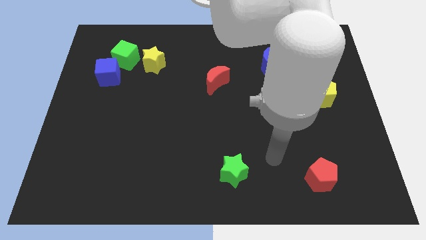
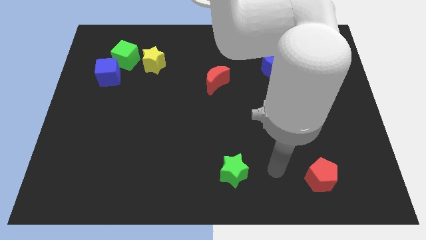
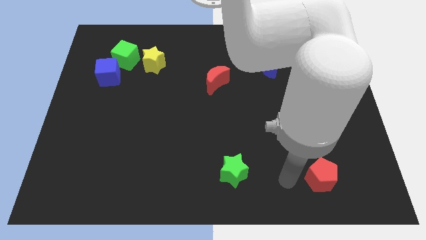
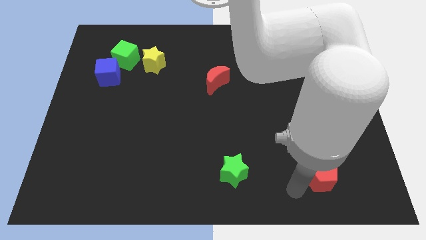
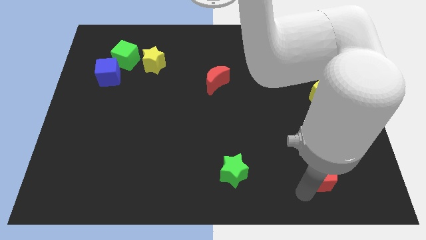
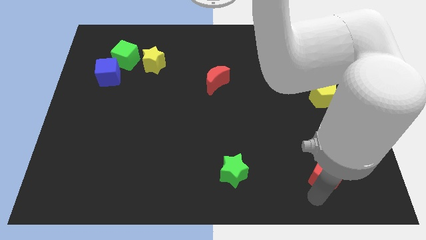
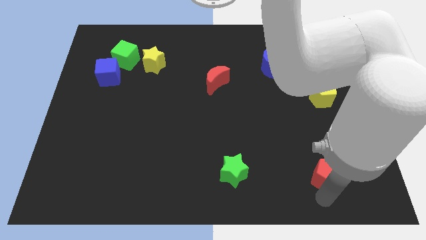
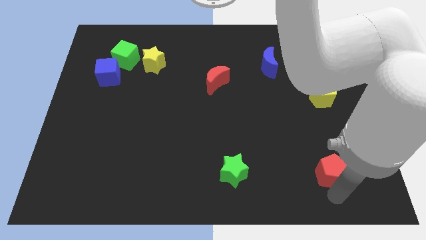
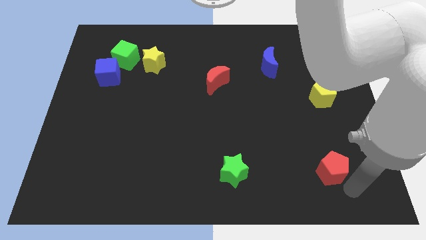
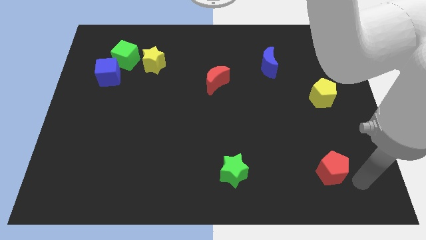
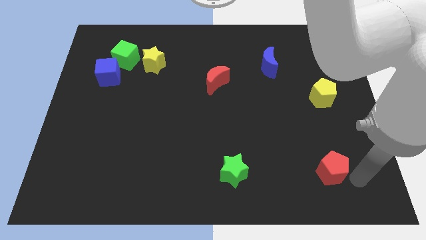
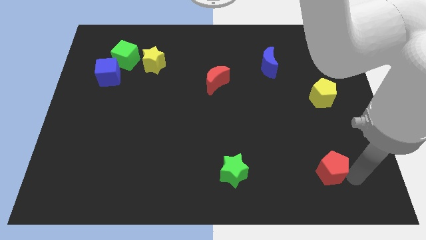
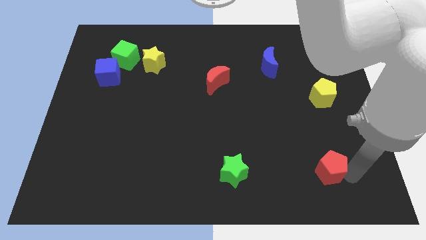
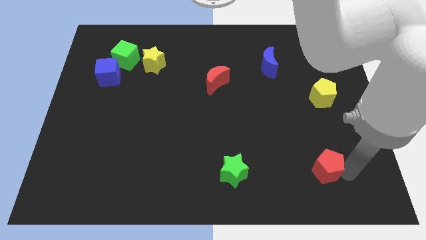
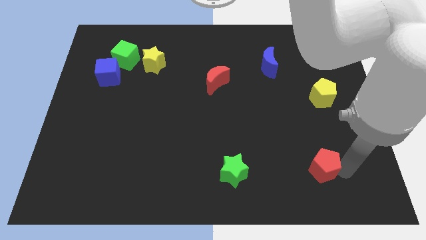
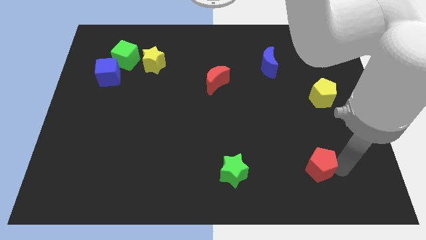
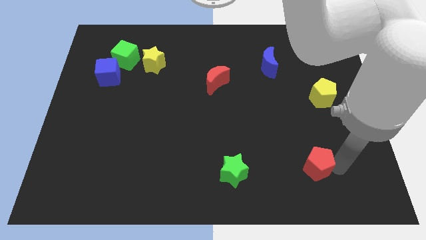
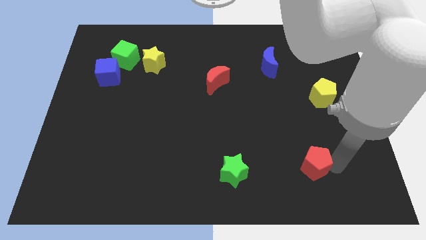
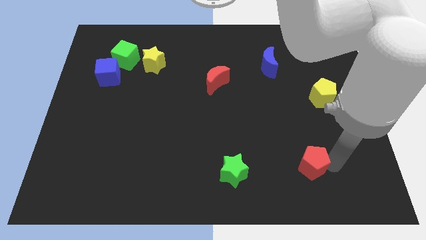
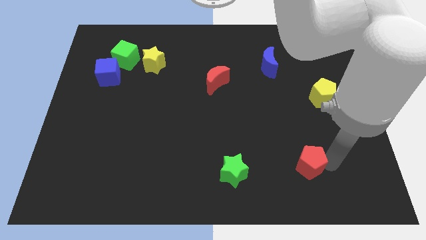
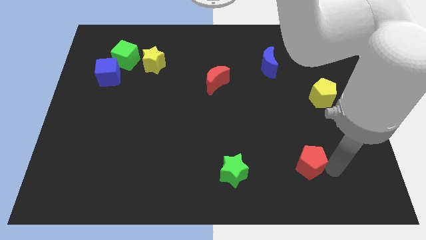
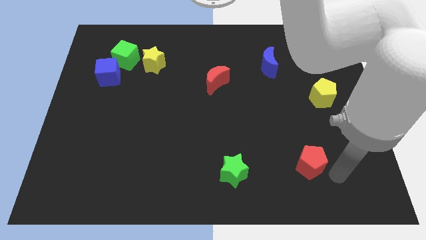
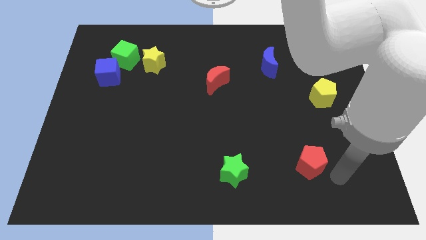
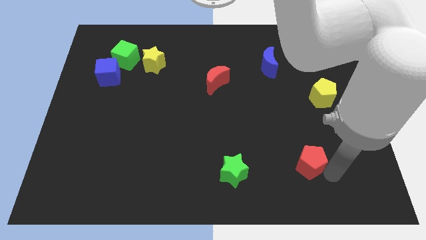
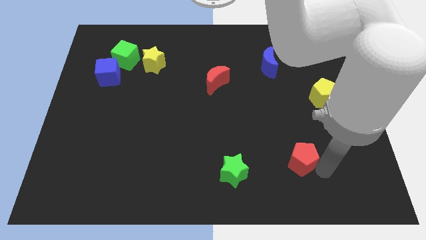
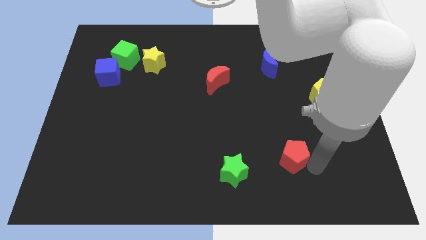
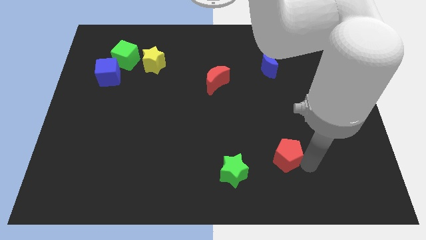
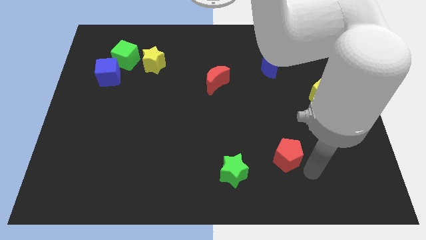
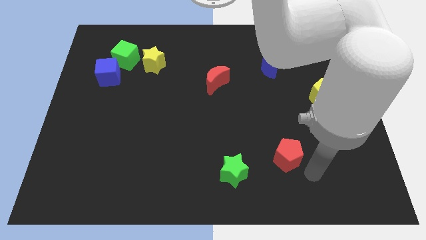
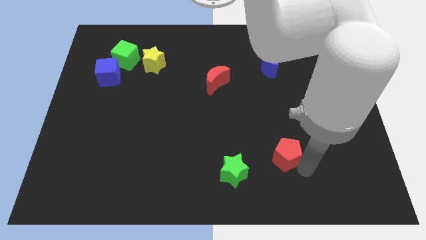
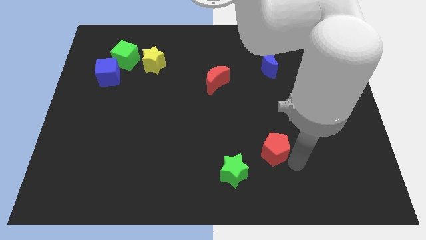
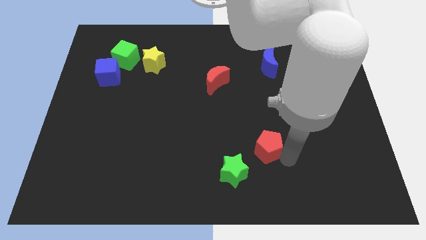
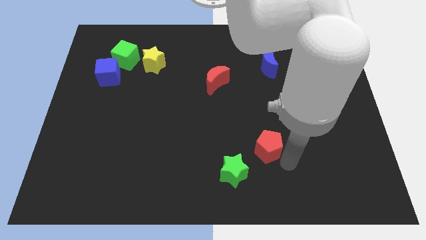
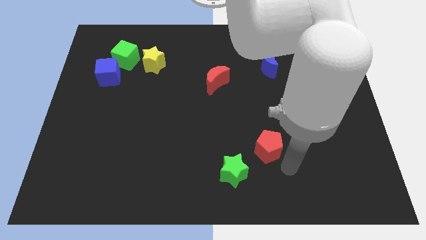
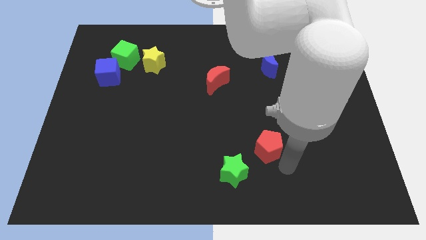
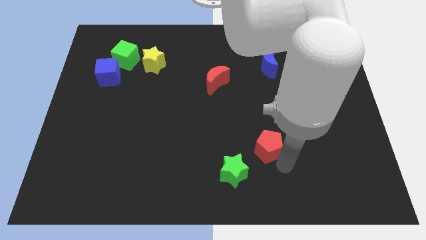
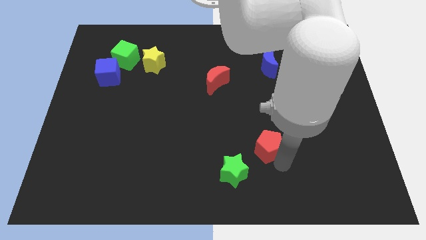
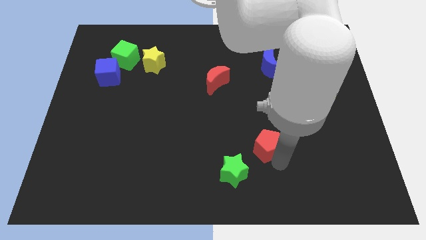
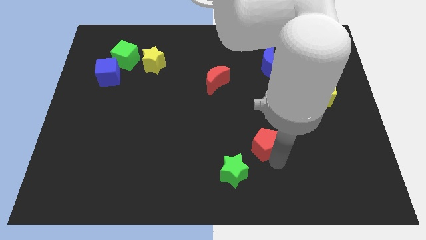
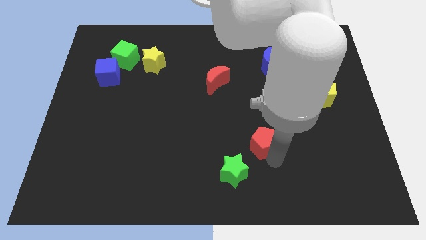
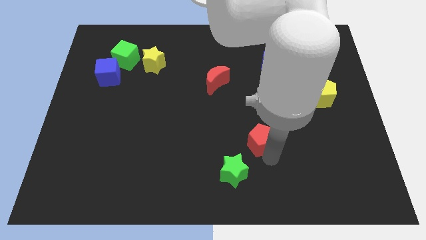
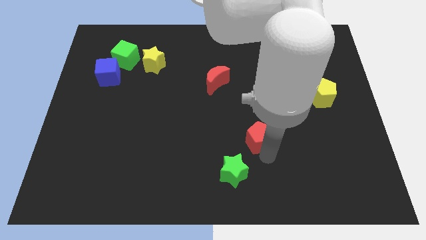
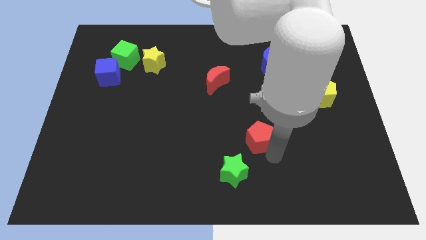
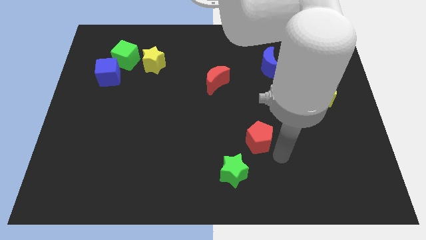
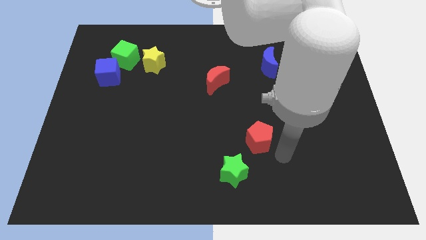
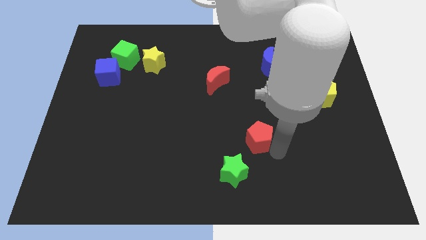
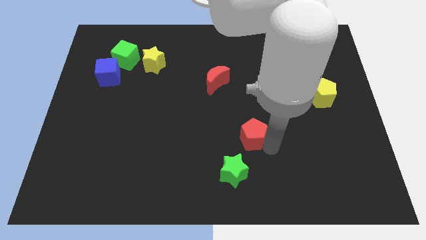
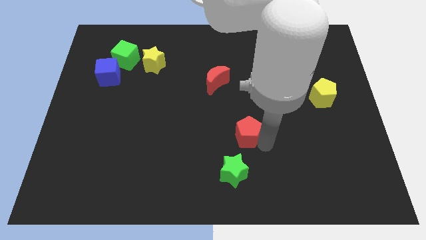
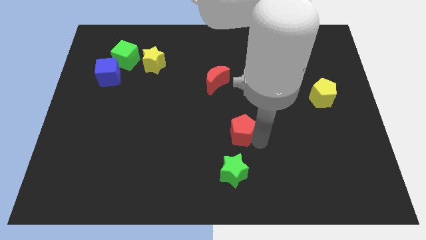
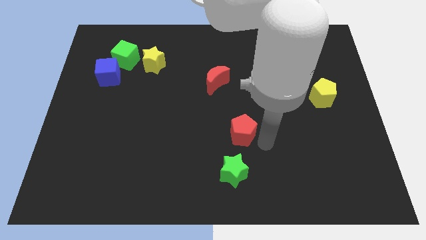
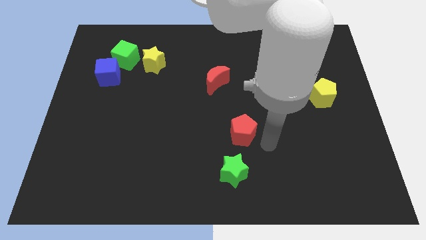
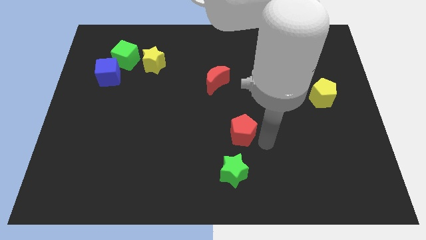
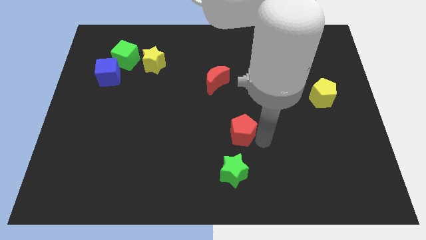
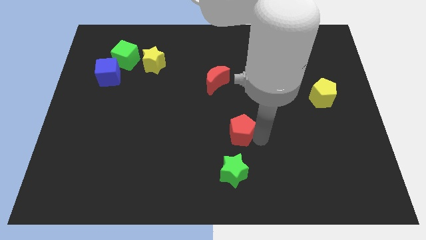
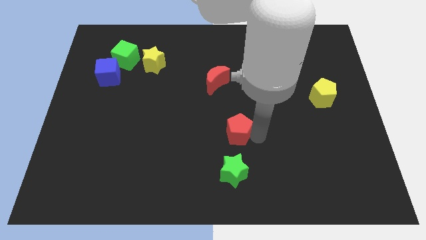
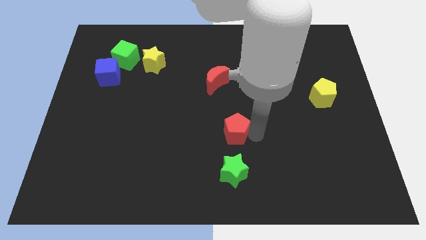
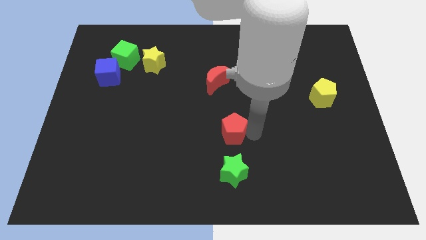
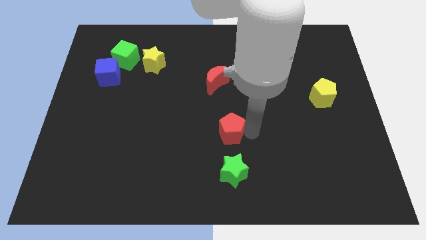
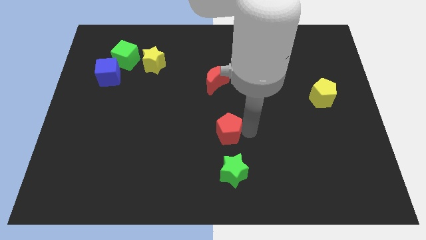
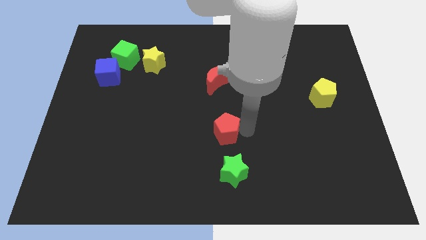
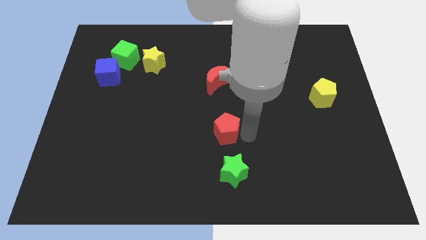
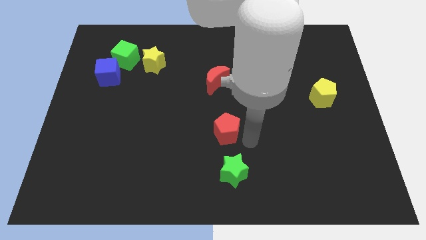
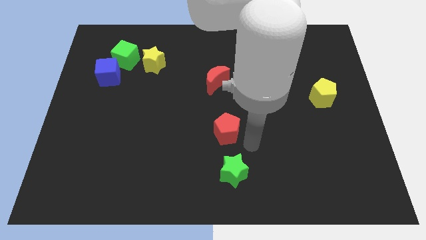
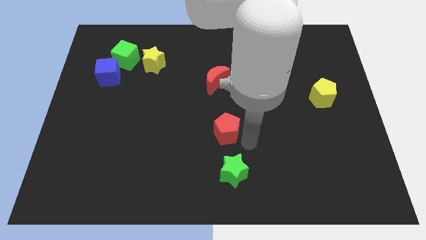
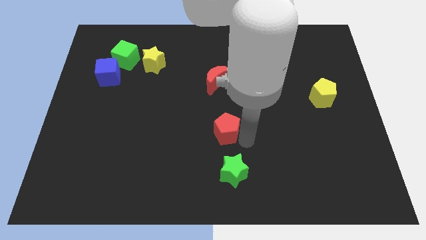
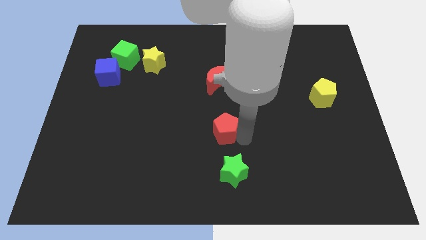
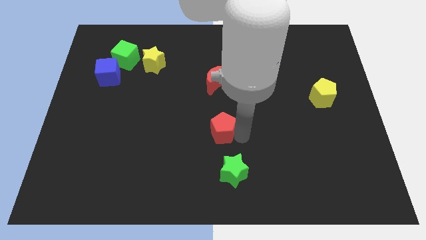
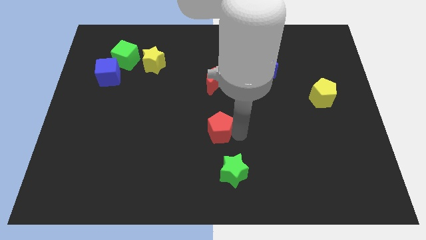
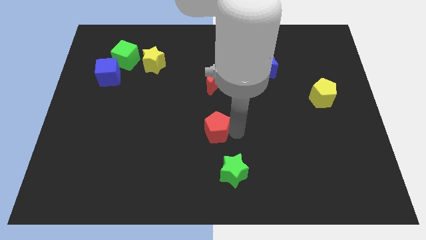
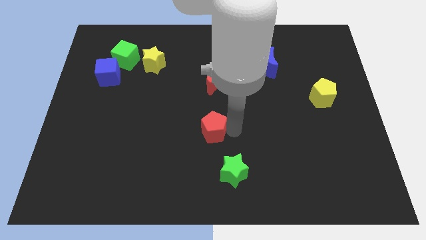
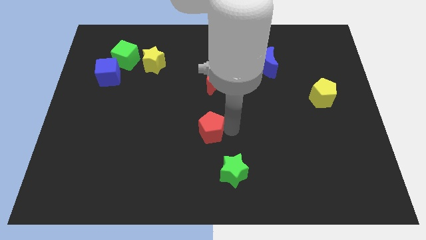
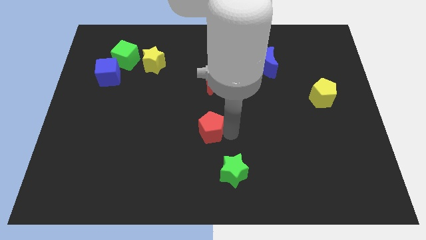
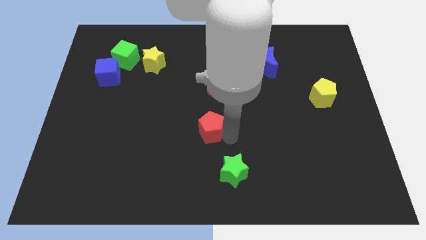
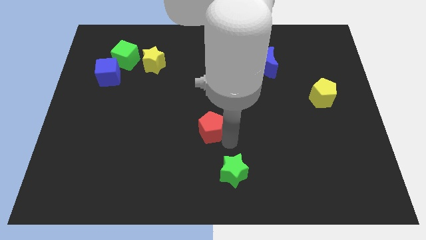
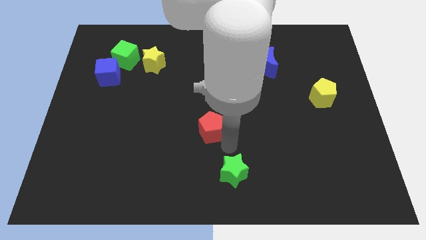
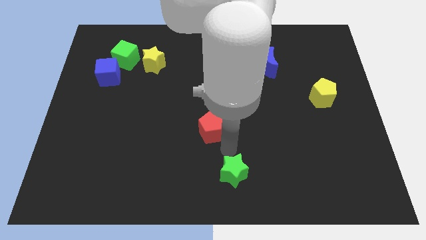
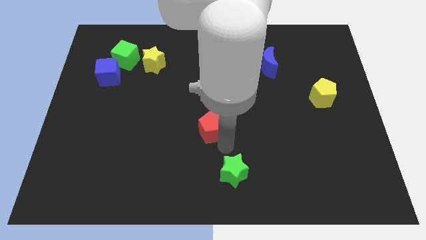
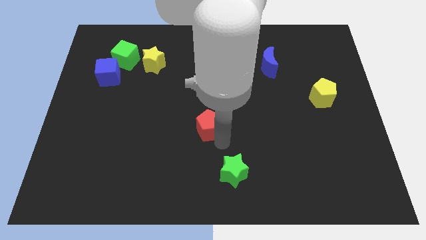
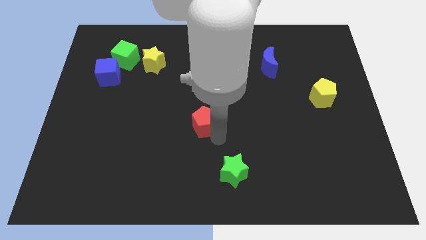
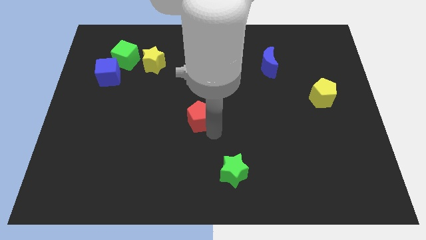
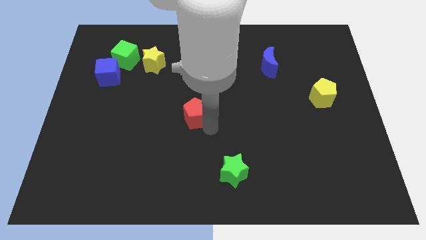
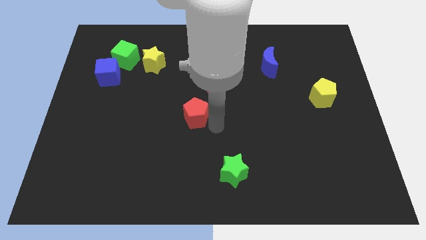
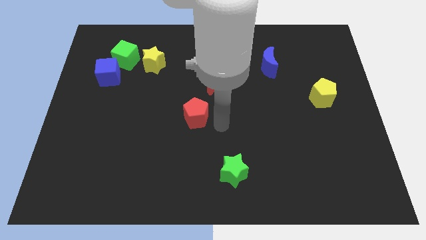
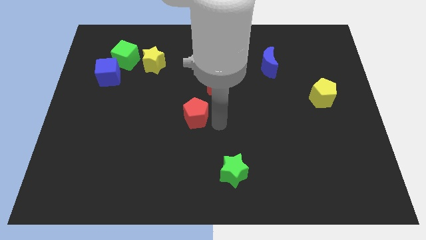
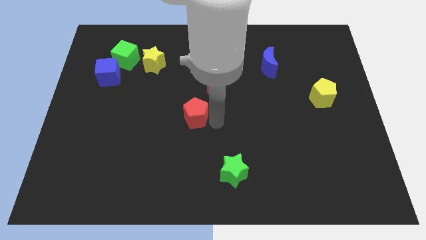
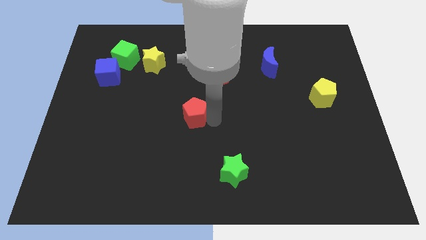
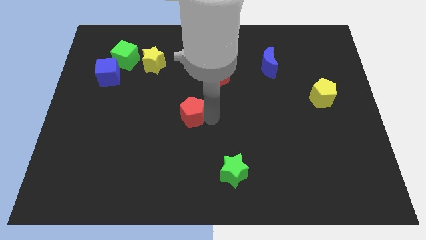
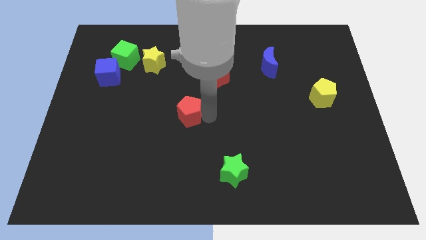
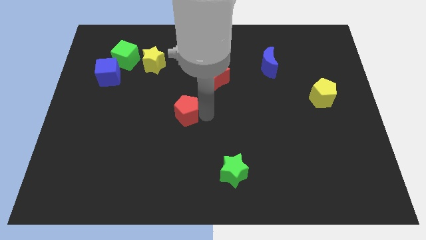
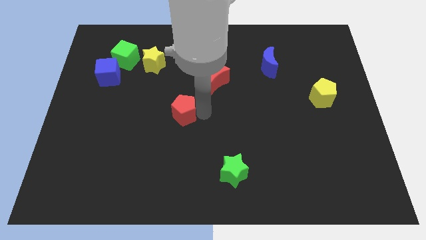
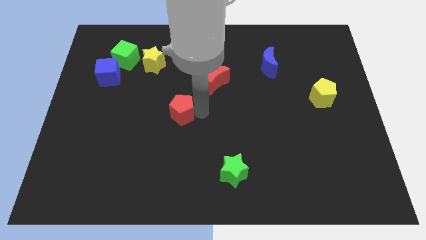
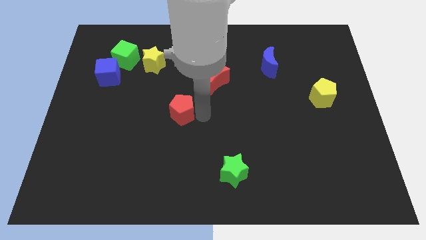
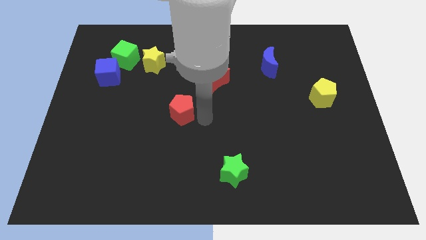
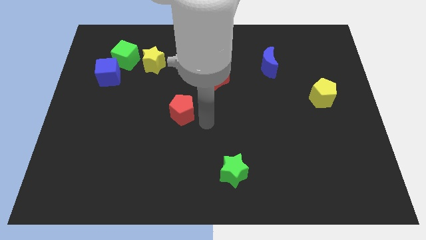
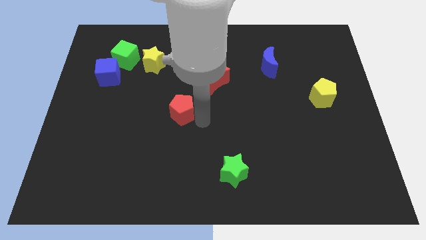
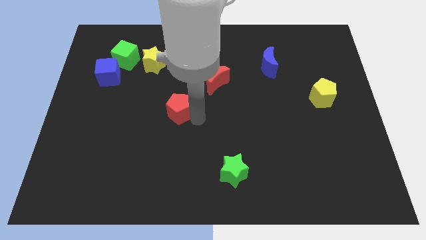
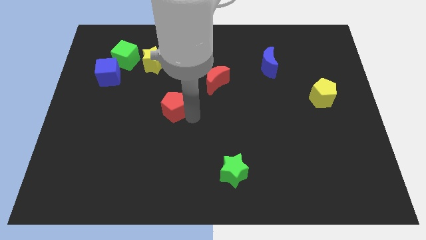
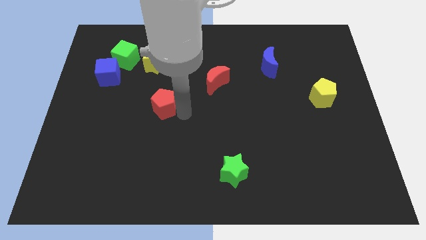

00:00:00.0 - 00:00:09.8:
push the red pentagon below the yellow star
